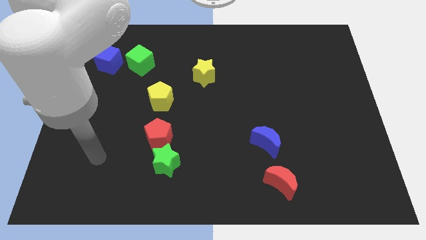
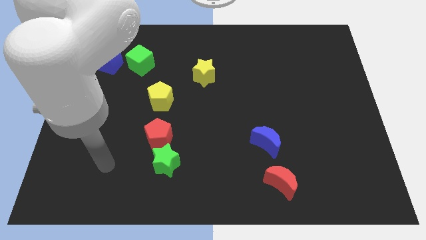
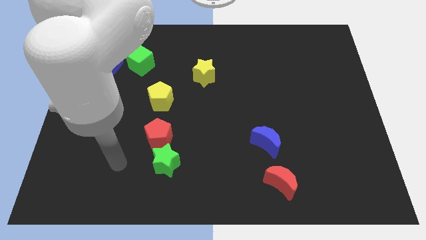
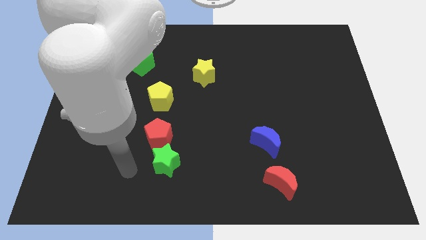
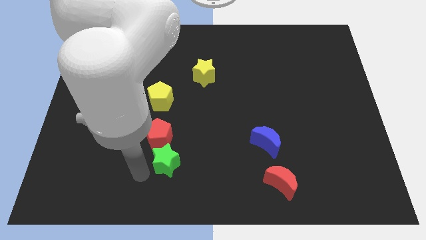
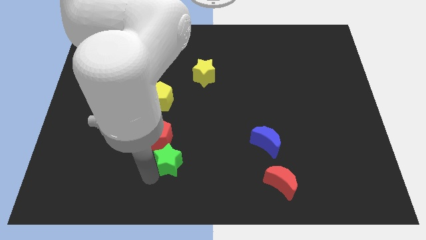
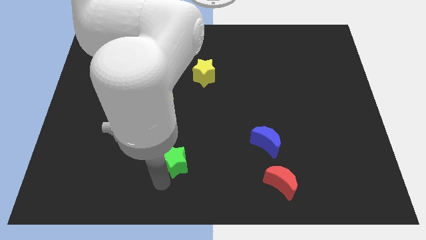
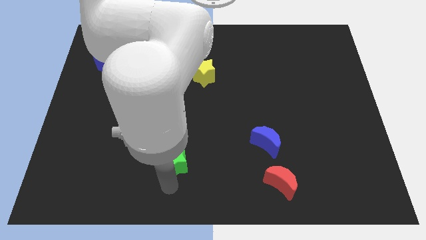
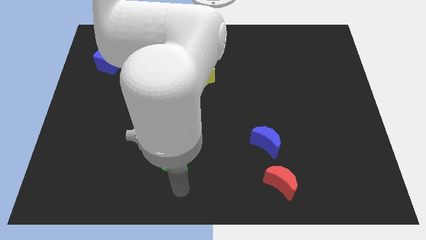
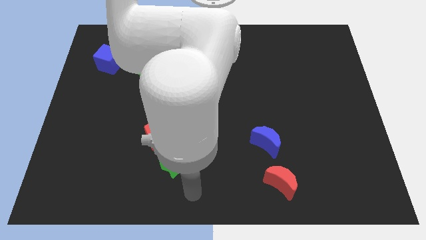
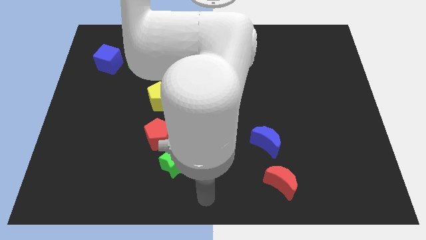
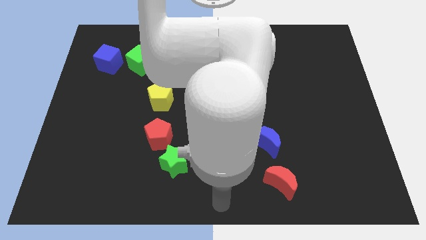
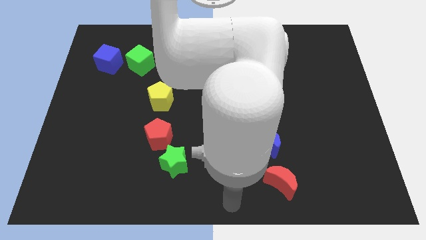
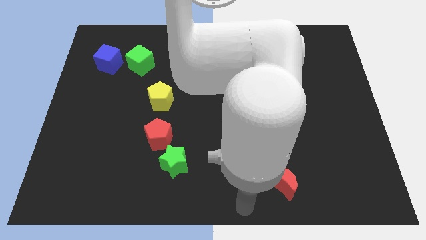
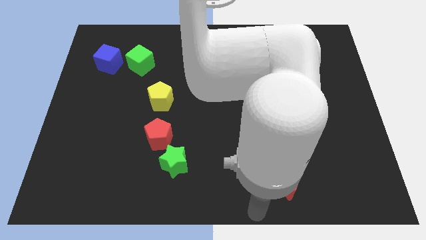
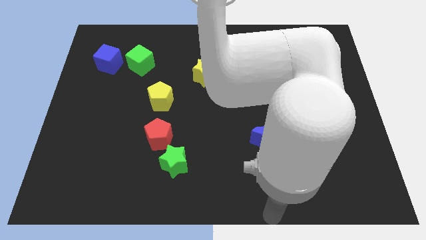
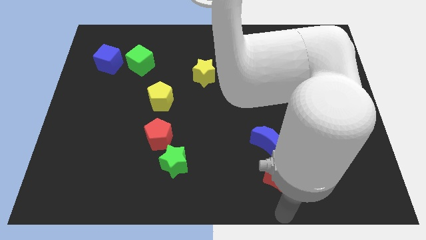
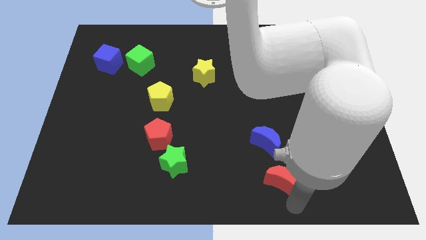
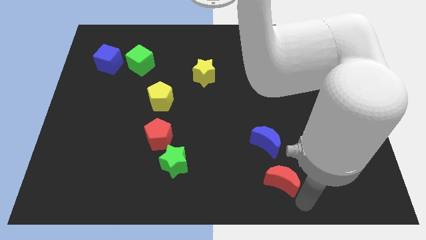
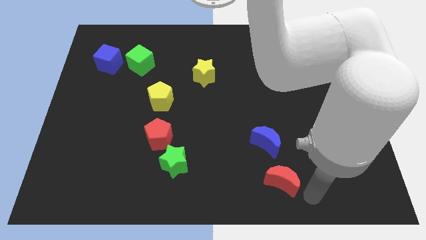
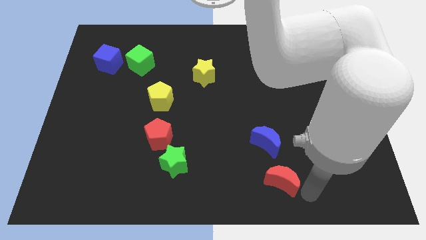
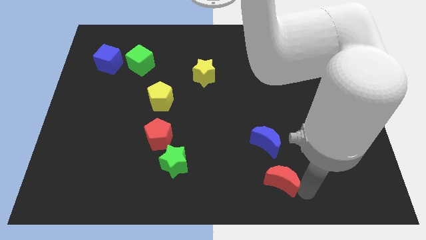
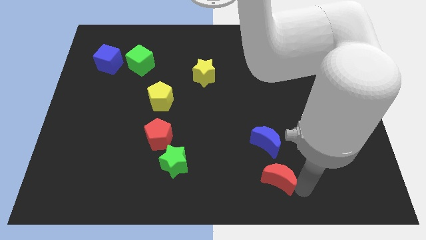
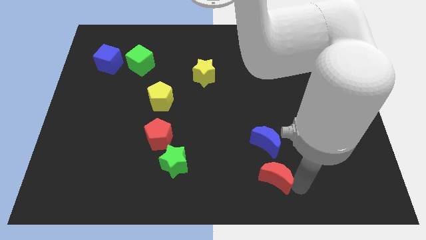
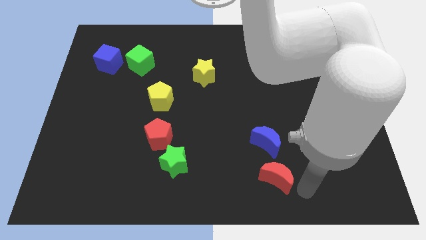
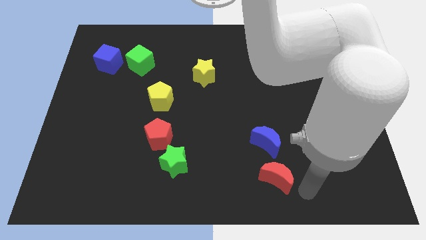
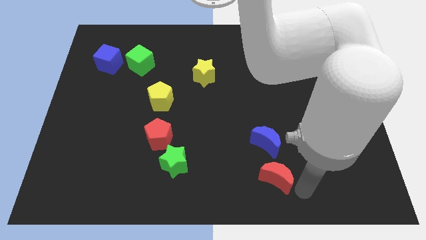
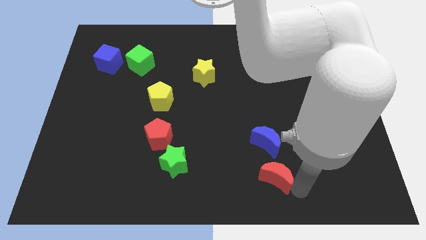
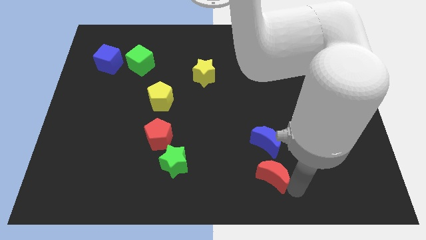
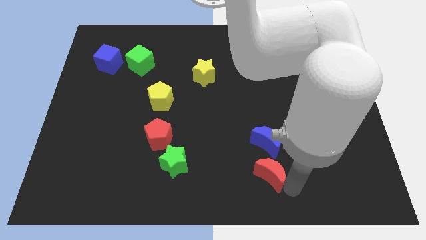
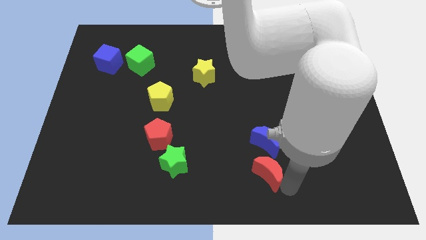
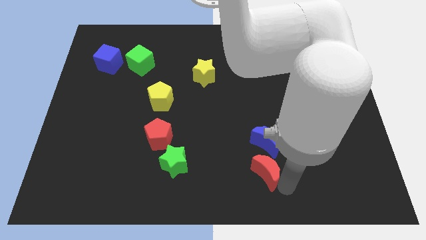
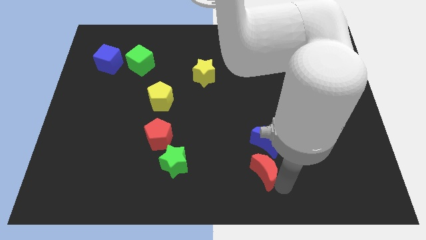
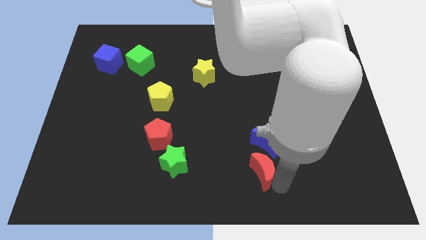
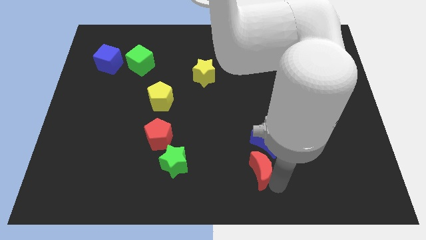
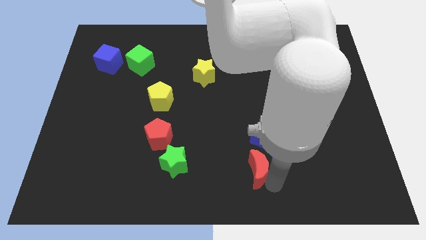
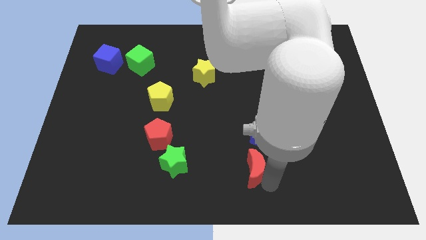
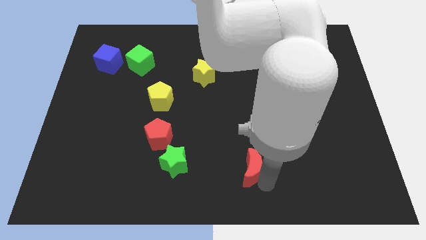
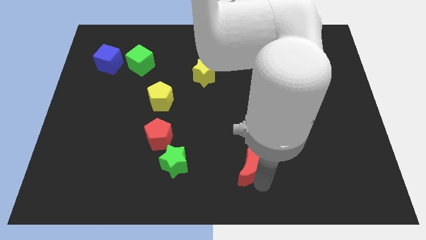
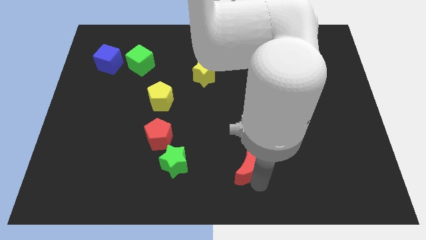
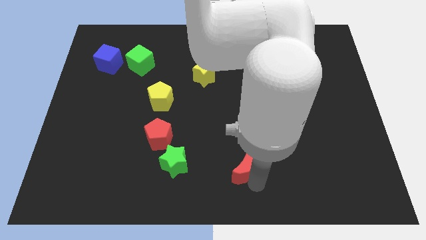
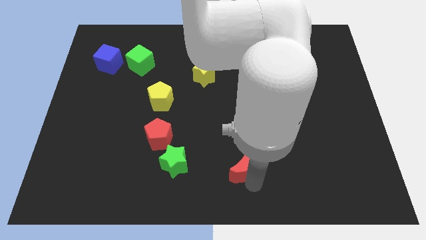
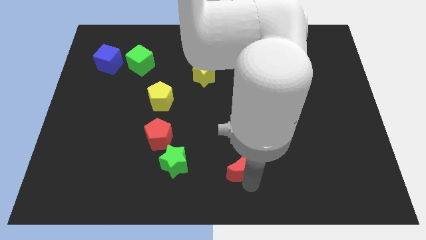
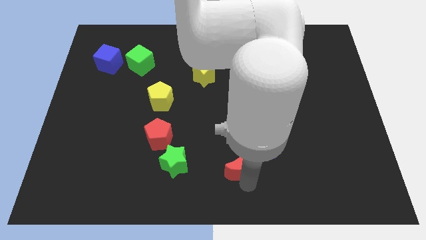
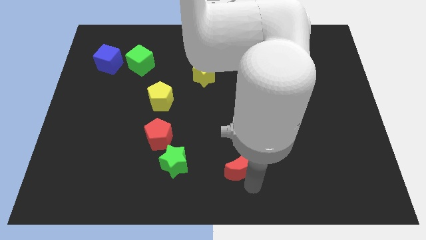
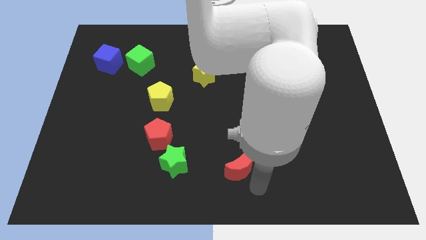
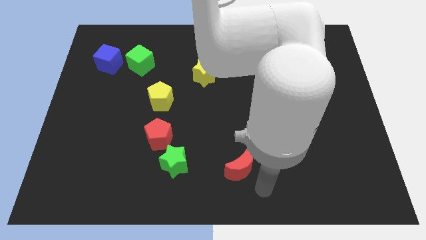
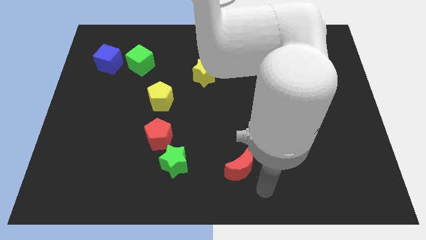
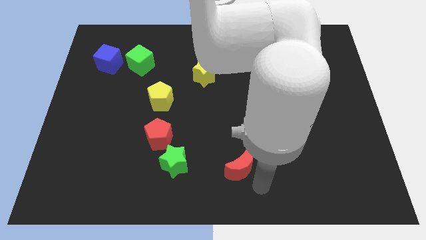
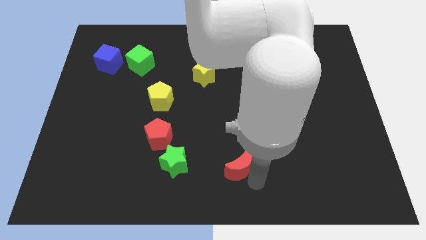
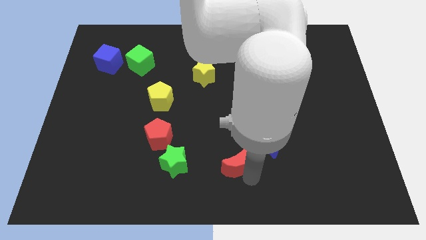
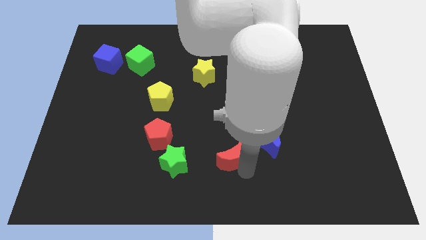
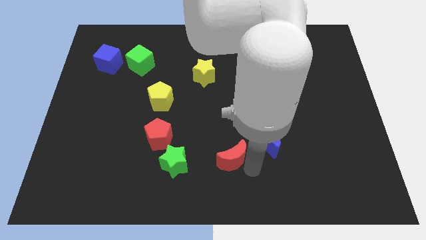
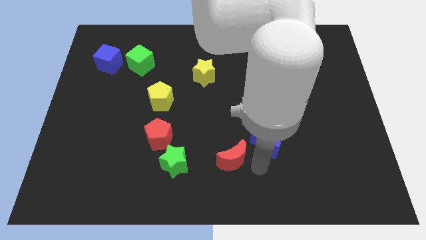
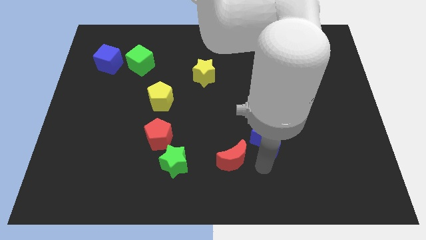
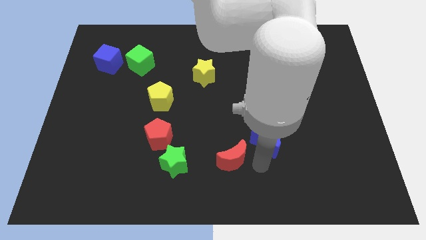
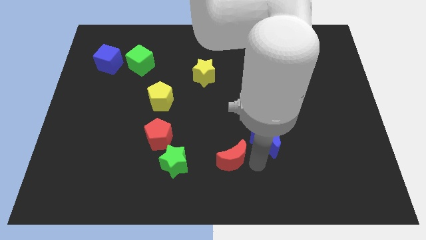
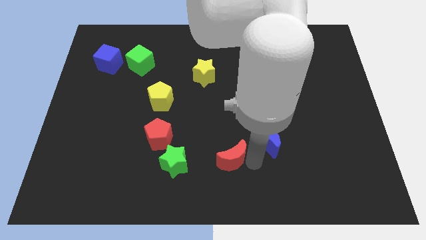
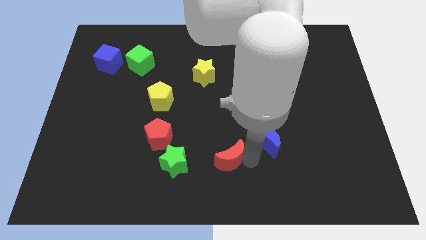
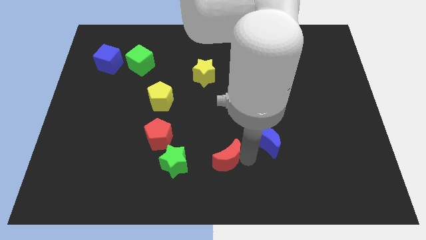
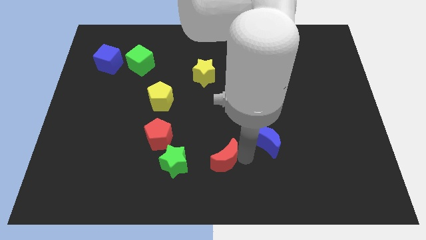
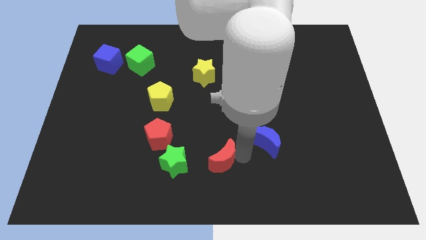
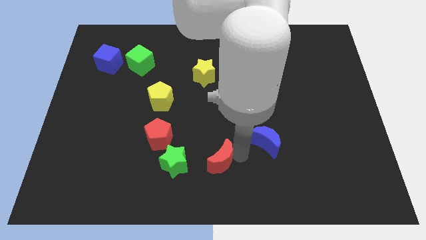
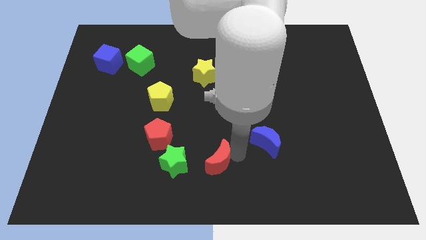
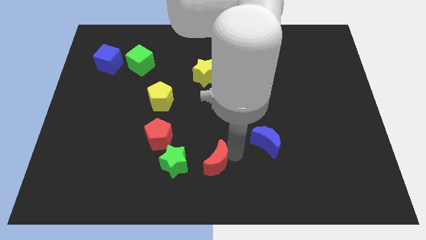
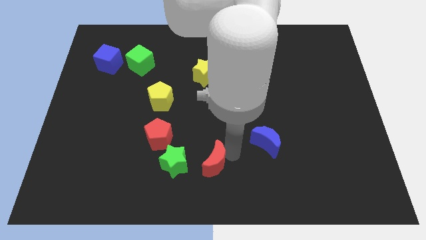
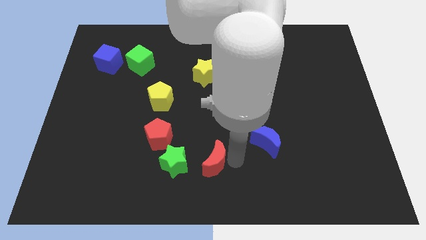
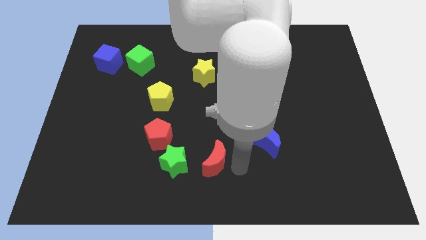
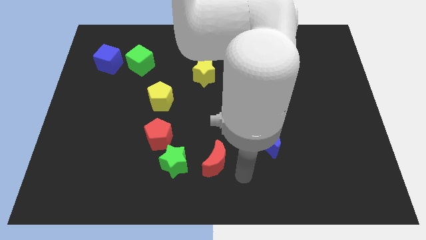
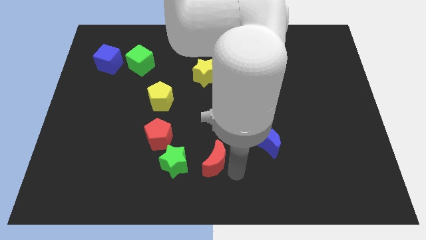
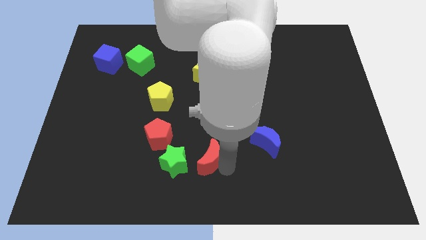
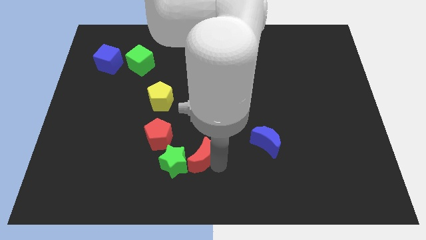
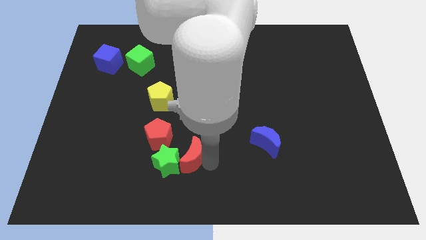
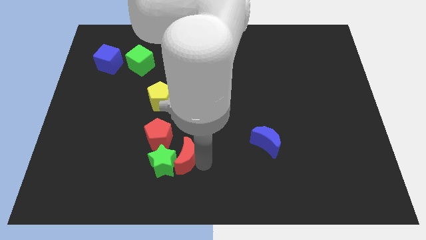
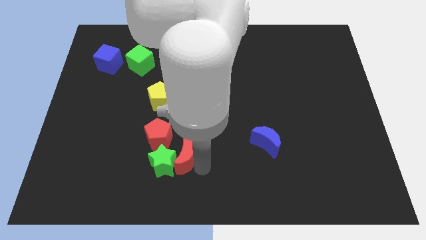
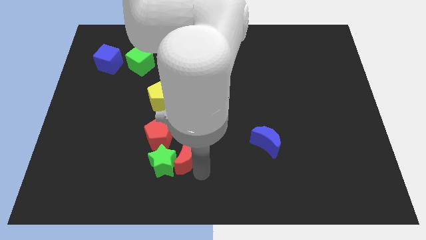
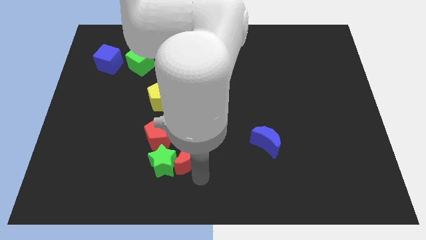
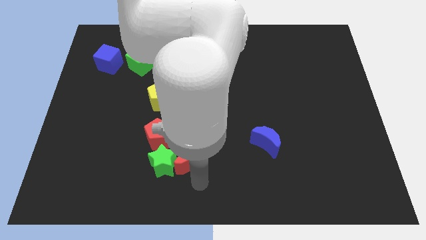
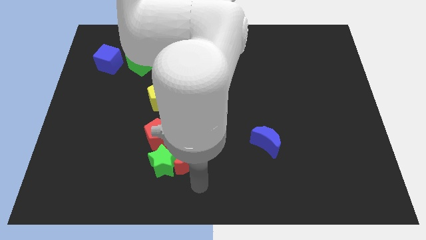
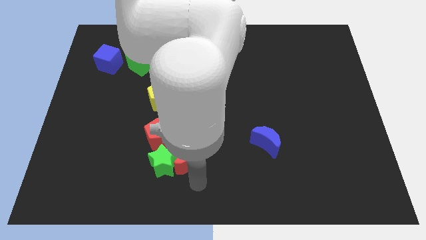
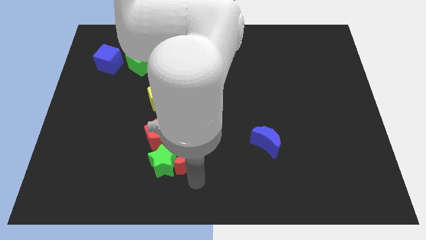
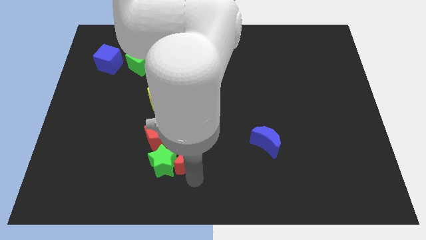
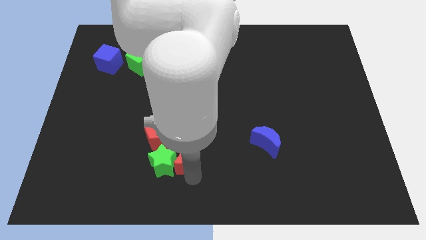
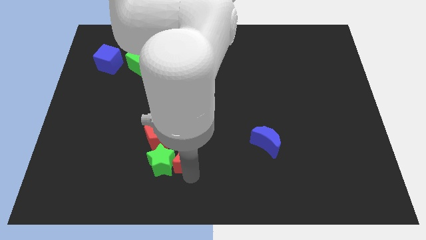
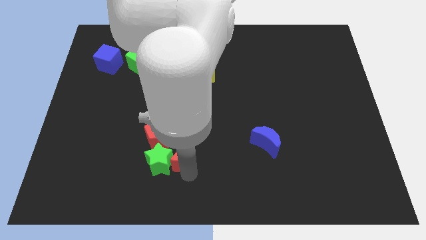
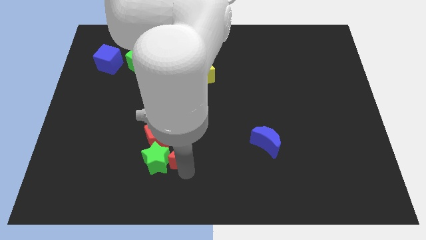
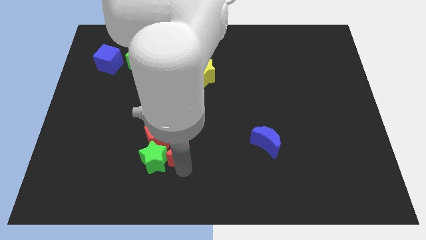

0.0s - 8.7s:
slide the red moon next to the red pentagon
